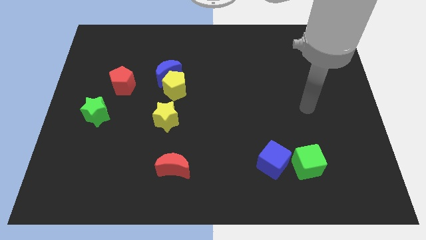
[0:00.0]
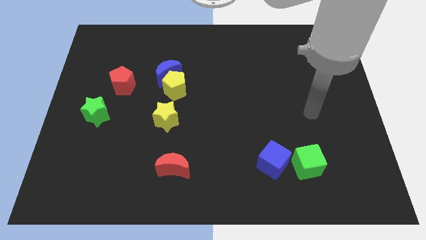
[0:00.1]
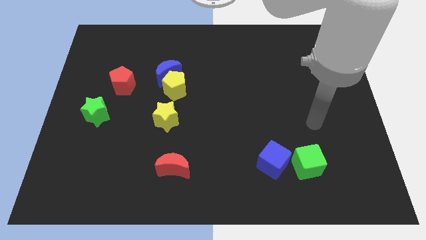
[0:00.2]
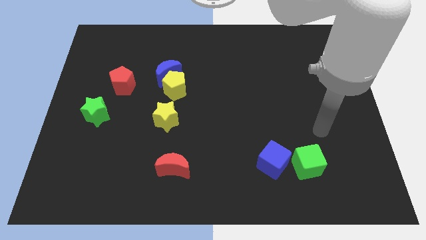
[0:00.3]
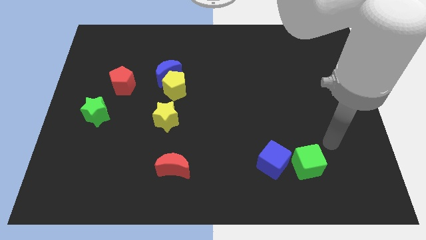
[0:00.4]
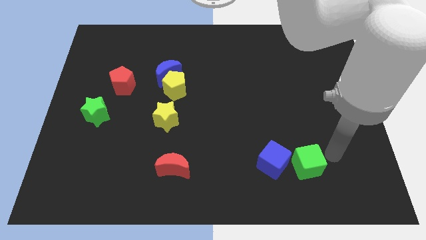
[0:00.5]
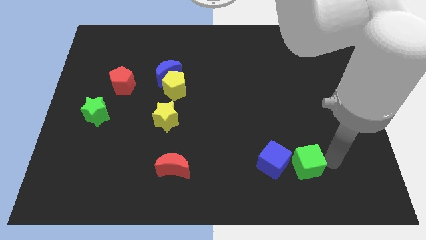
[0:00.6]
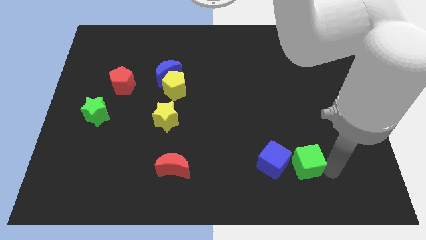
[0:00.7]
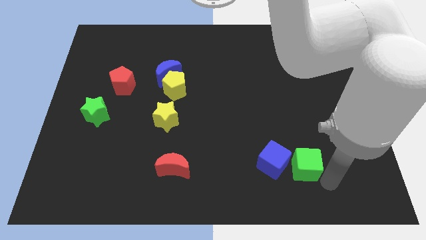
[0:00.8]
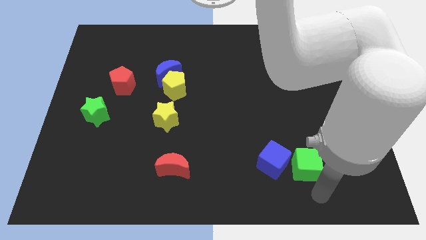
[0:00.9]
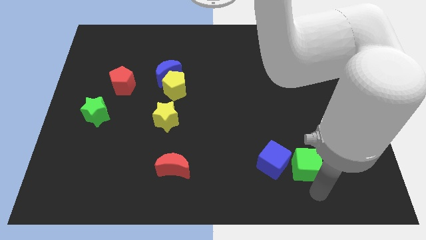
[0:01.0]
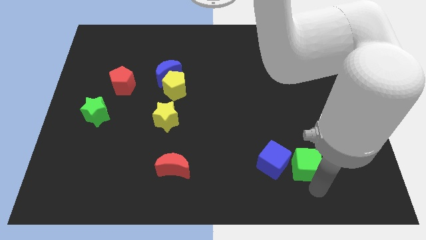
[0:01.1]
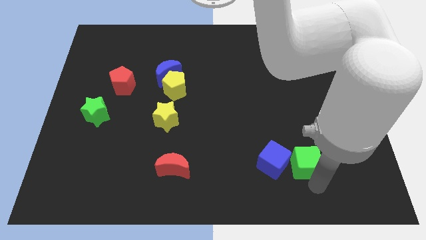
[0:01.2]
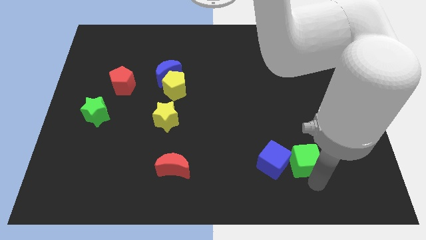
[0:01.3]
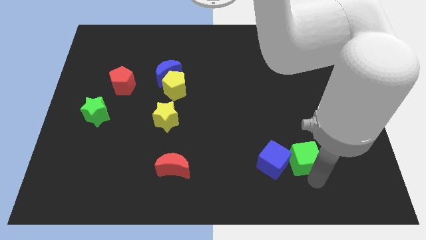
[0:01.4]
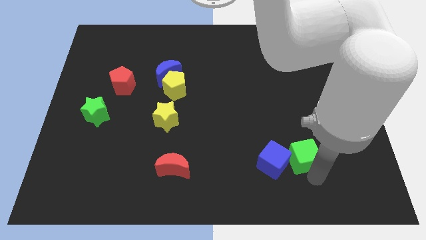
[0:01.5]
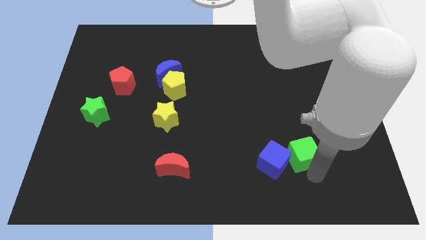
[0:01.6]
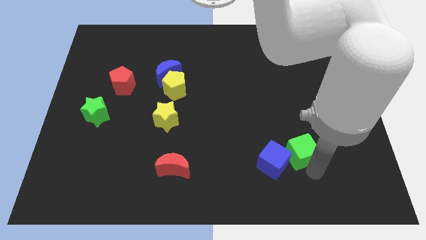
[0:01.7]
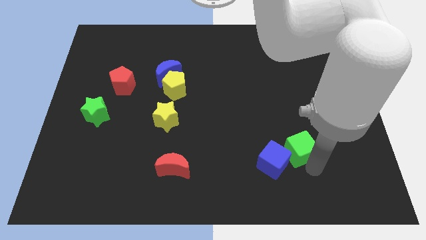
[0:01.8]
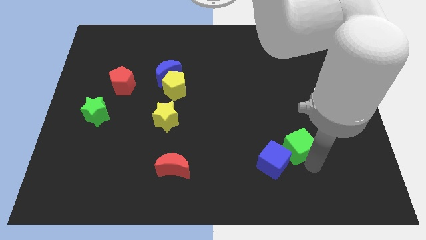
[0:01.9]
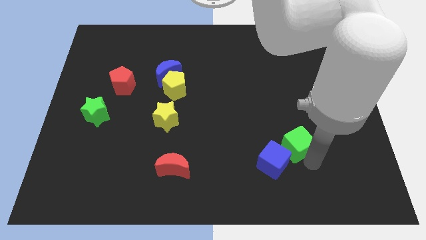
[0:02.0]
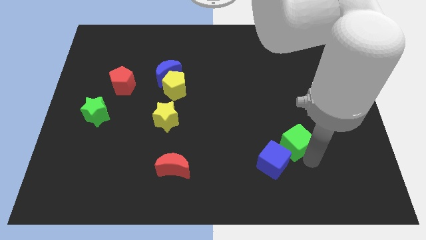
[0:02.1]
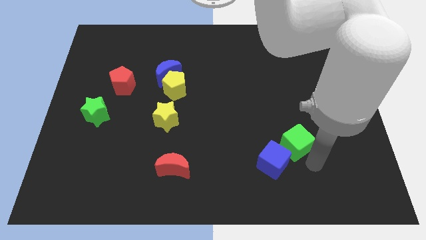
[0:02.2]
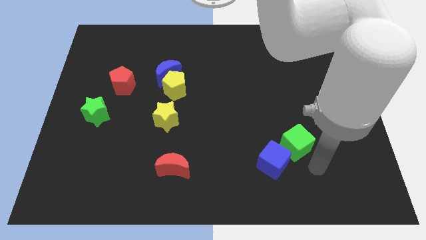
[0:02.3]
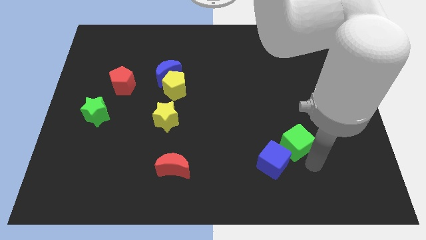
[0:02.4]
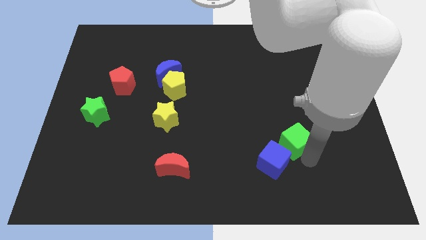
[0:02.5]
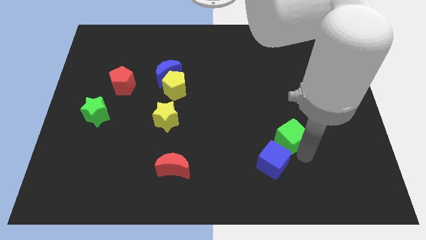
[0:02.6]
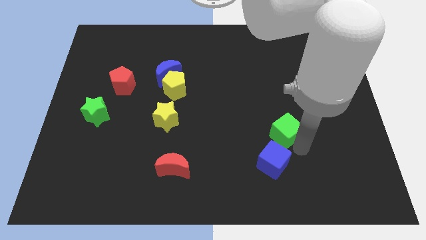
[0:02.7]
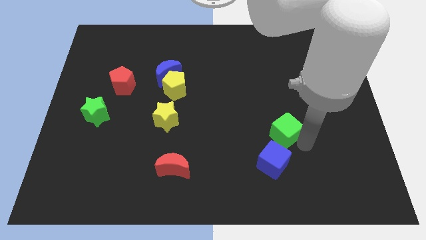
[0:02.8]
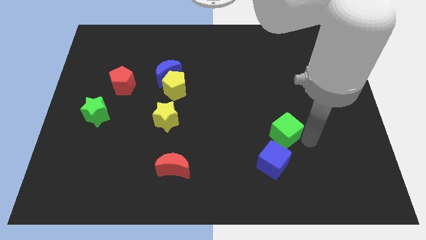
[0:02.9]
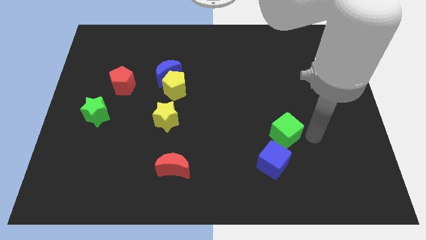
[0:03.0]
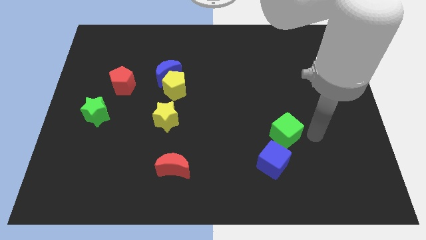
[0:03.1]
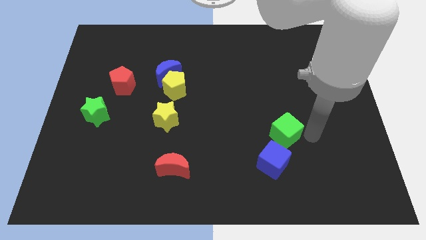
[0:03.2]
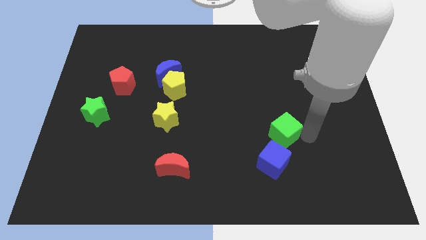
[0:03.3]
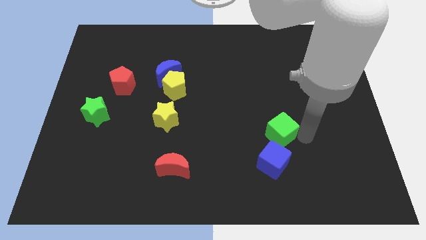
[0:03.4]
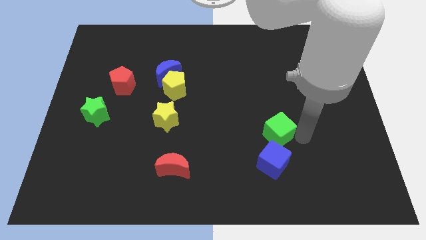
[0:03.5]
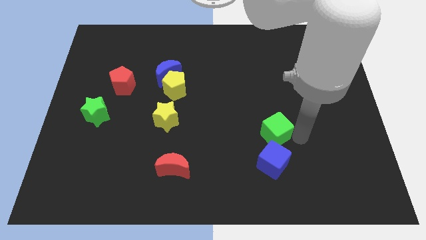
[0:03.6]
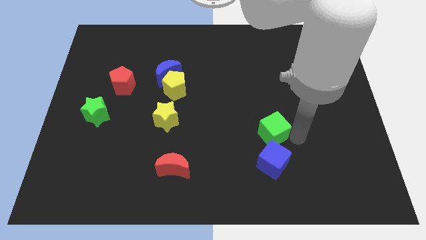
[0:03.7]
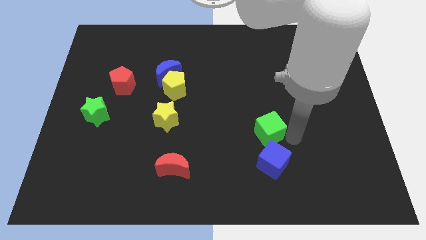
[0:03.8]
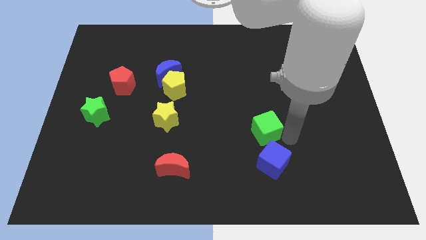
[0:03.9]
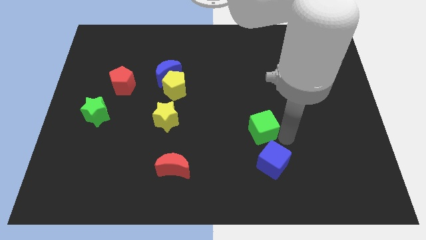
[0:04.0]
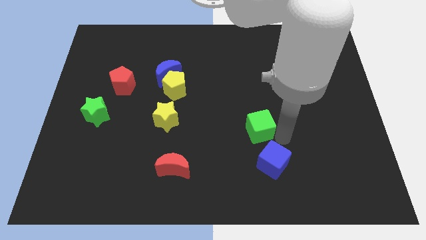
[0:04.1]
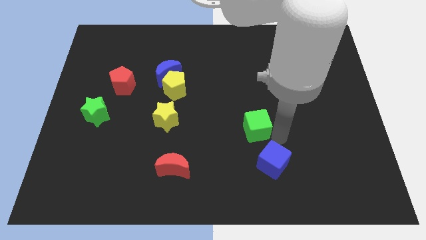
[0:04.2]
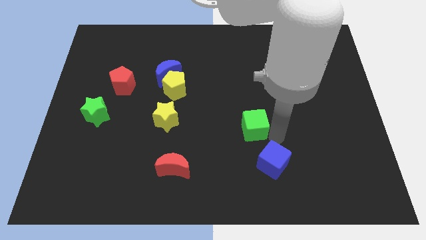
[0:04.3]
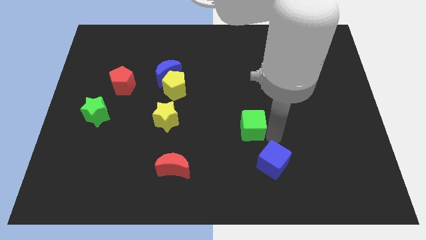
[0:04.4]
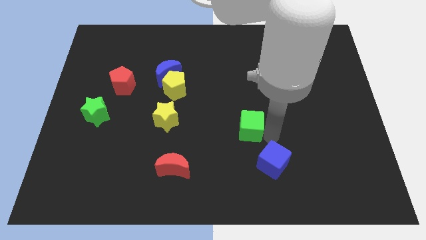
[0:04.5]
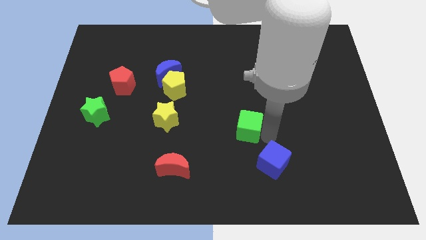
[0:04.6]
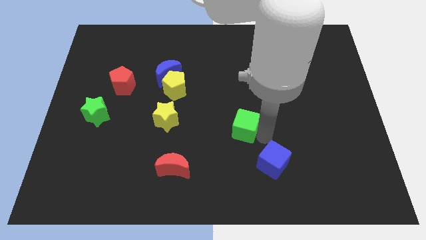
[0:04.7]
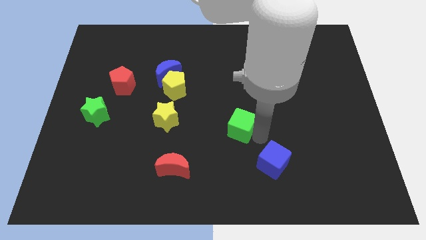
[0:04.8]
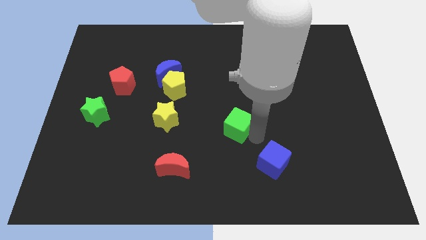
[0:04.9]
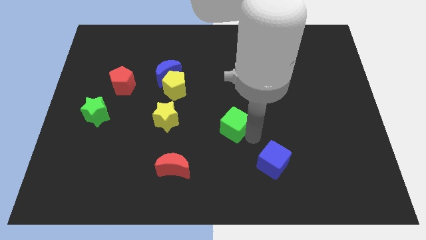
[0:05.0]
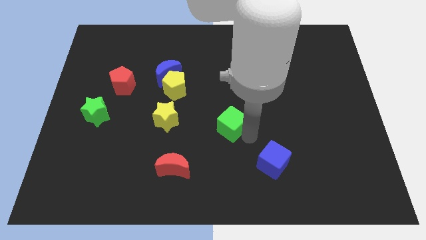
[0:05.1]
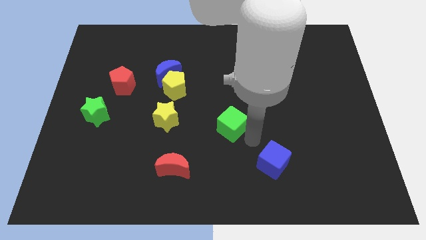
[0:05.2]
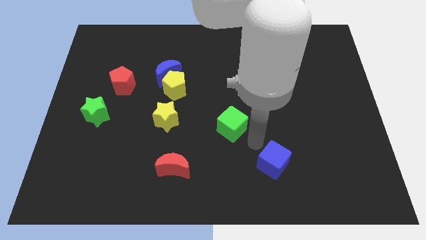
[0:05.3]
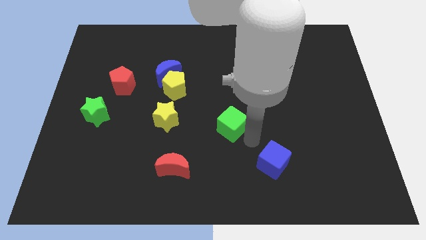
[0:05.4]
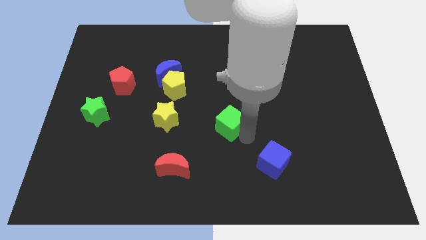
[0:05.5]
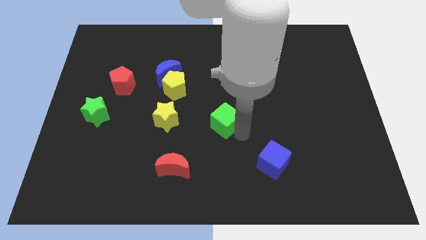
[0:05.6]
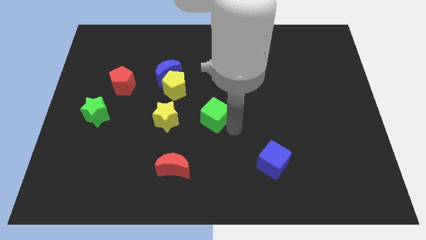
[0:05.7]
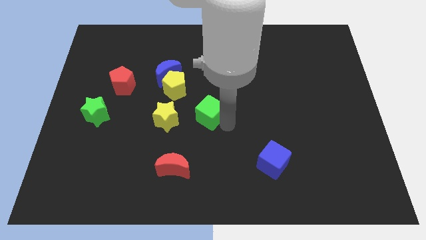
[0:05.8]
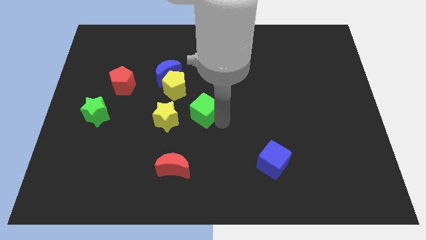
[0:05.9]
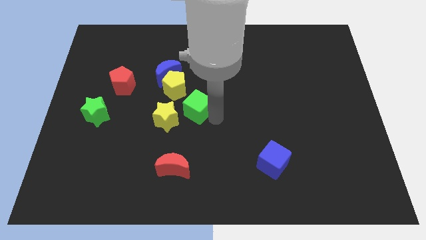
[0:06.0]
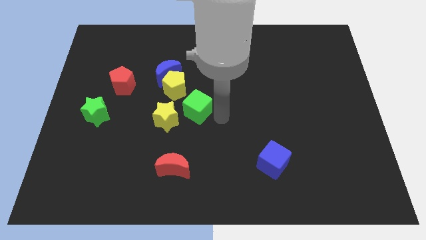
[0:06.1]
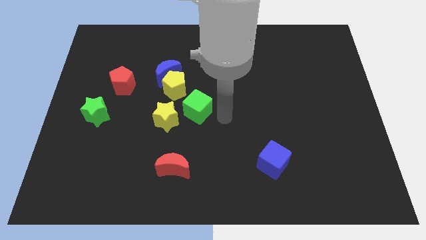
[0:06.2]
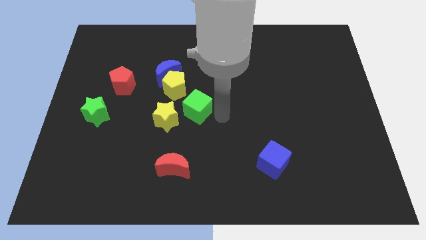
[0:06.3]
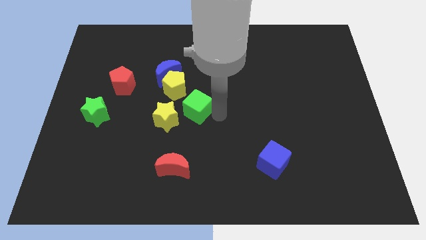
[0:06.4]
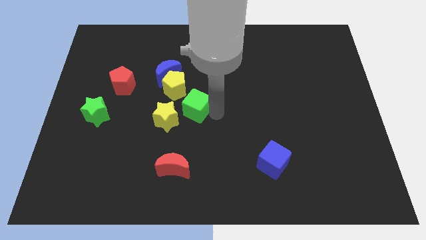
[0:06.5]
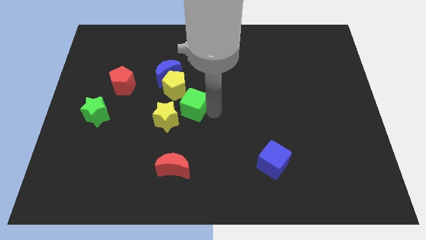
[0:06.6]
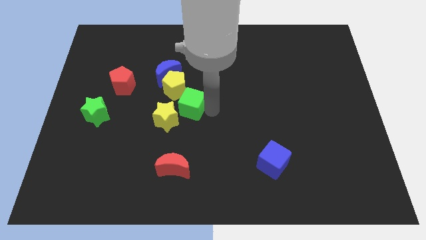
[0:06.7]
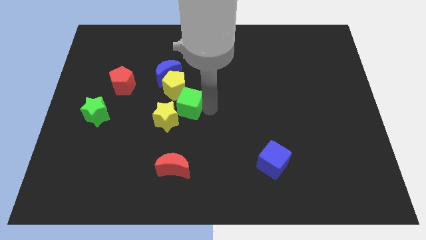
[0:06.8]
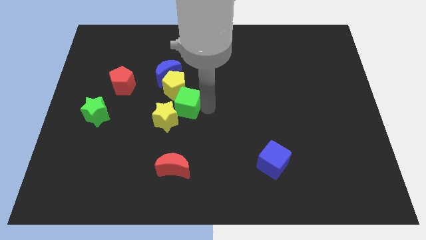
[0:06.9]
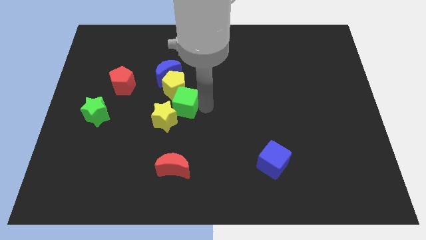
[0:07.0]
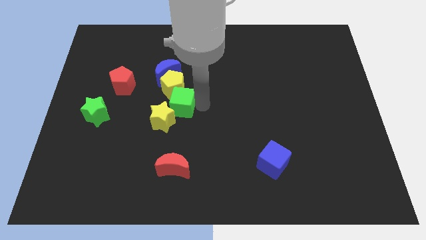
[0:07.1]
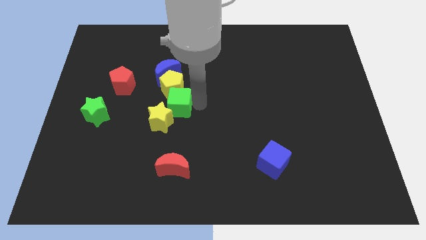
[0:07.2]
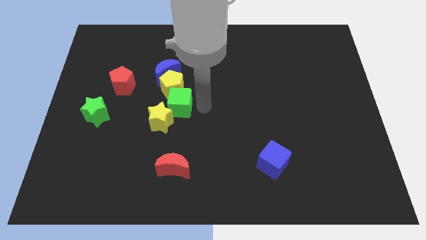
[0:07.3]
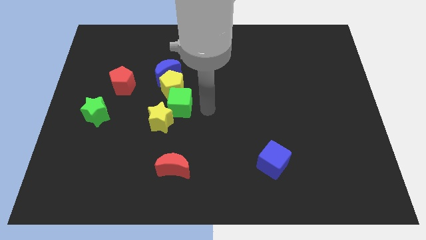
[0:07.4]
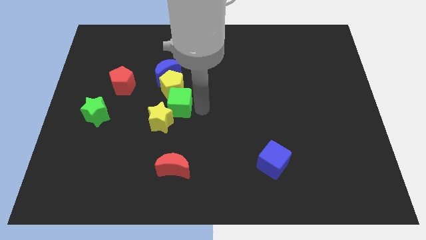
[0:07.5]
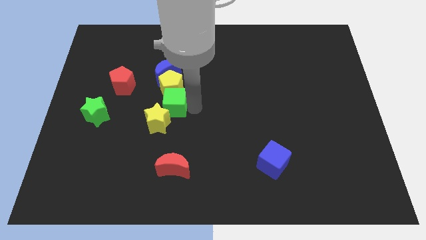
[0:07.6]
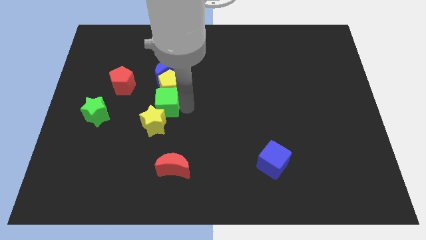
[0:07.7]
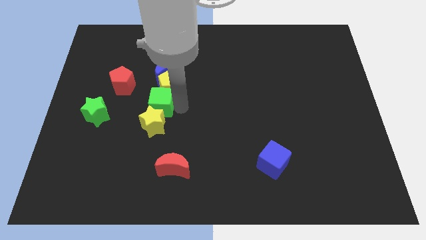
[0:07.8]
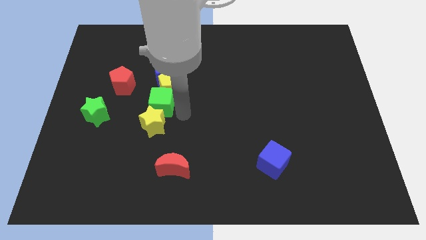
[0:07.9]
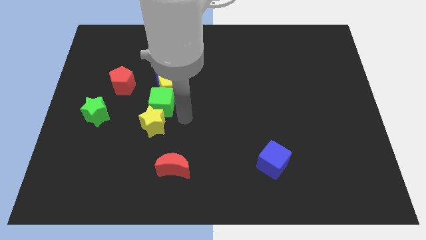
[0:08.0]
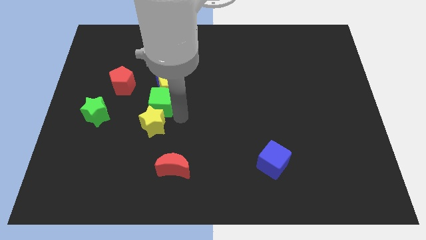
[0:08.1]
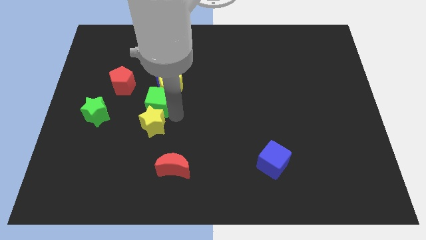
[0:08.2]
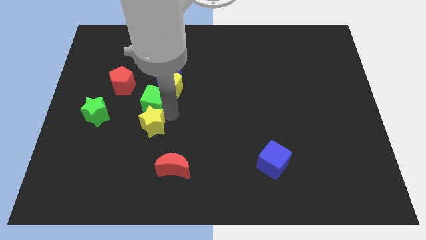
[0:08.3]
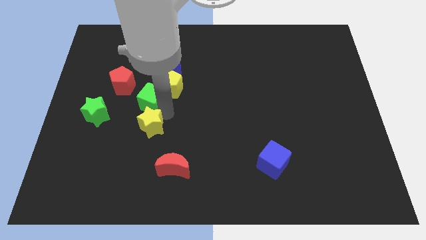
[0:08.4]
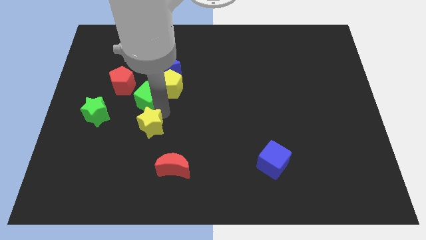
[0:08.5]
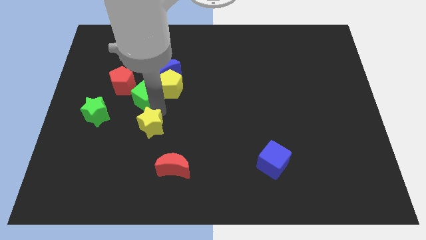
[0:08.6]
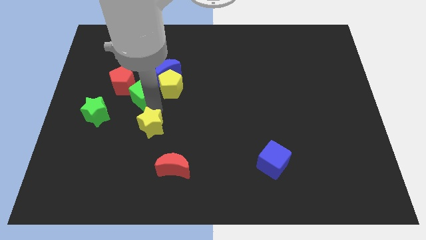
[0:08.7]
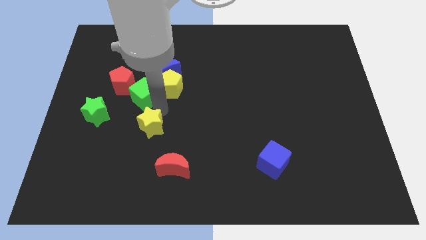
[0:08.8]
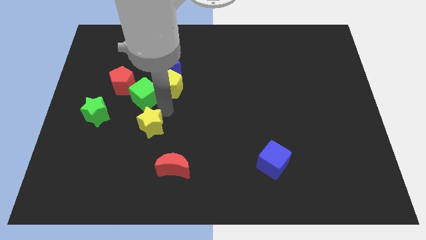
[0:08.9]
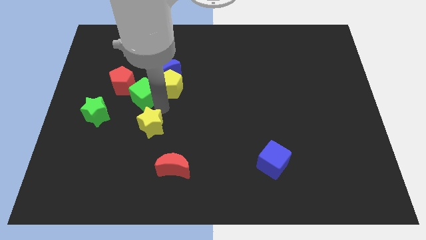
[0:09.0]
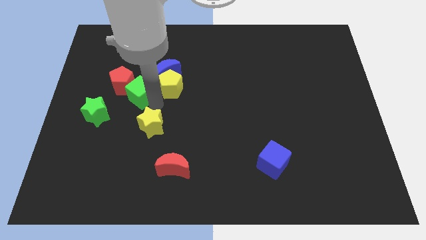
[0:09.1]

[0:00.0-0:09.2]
slide the green cube towards the red pentagon
